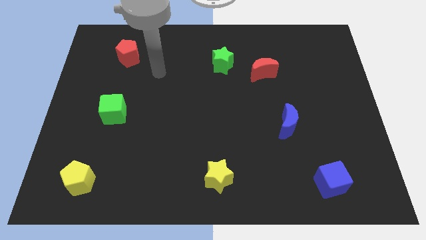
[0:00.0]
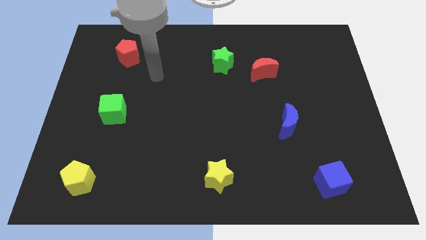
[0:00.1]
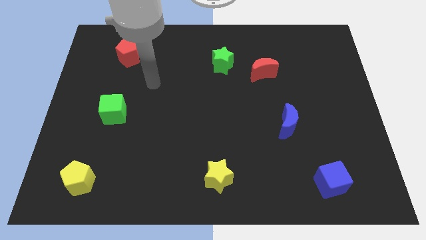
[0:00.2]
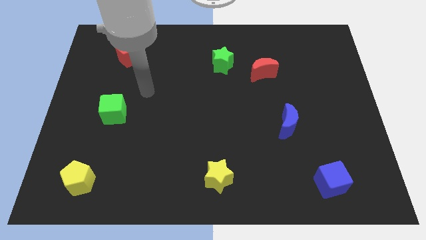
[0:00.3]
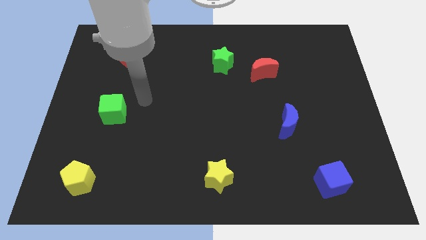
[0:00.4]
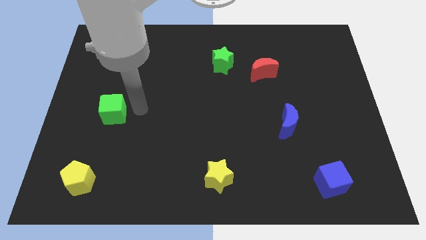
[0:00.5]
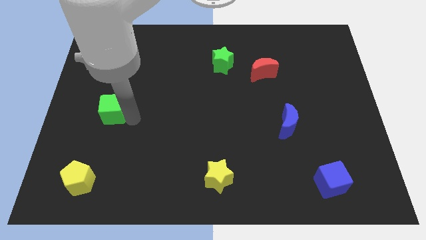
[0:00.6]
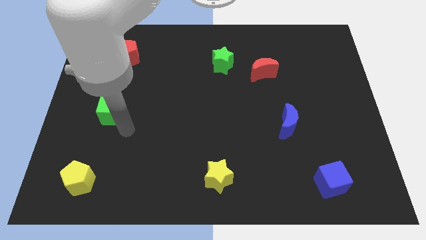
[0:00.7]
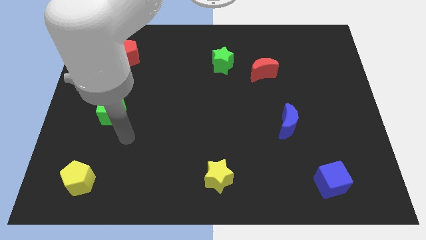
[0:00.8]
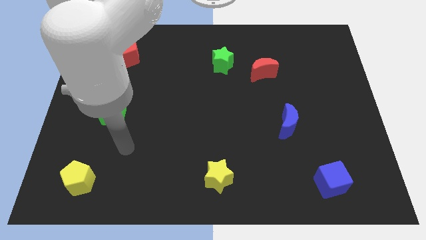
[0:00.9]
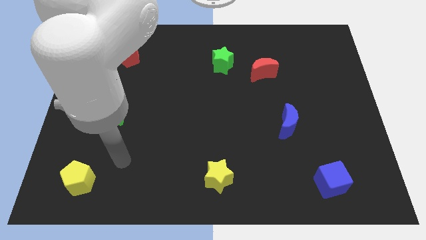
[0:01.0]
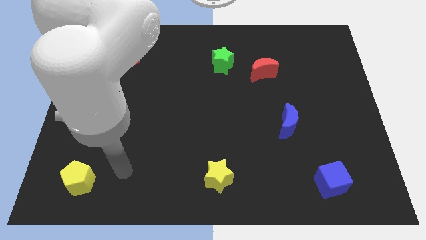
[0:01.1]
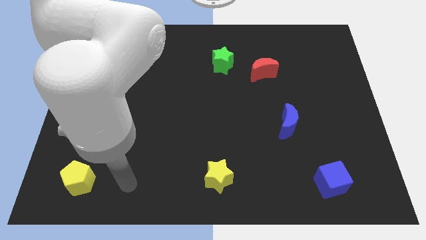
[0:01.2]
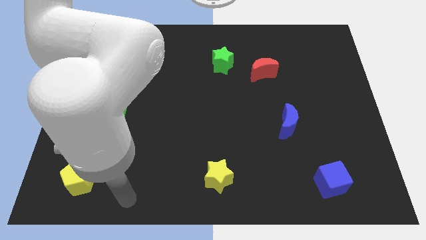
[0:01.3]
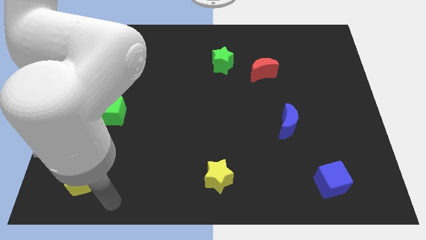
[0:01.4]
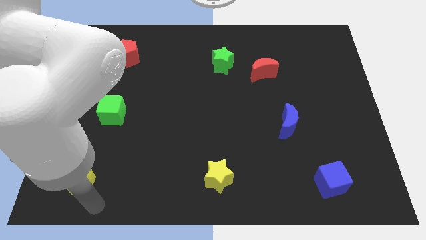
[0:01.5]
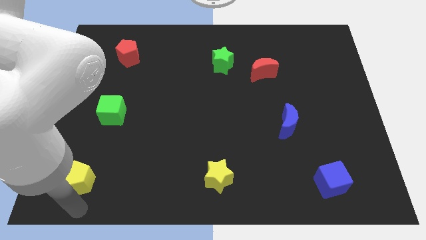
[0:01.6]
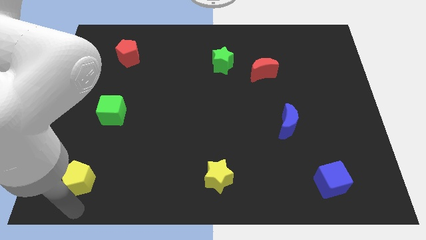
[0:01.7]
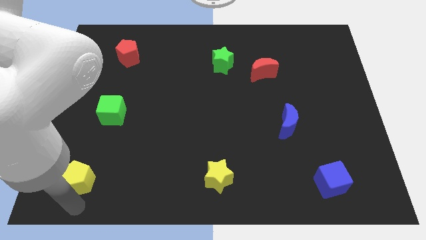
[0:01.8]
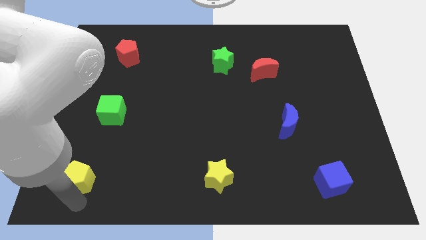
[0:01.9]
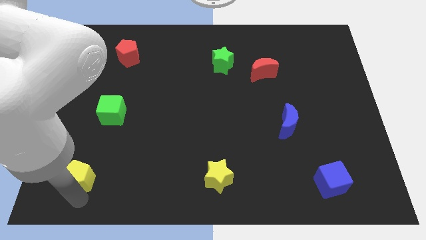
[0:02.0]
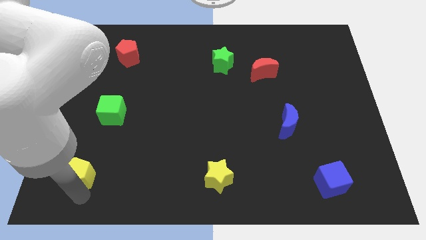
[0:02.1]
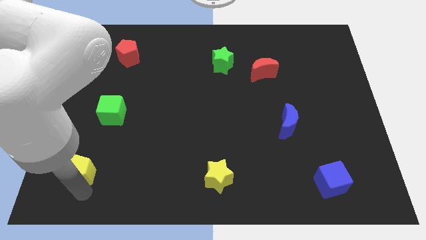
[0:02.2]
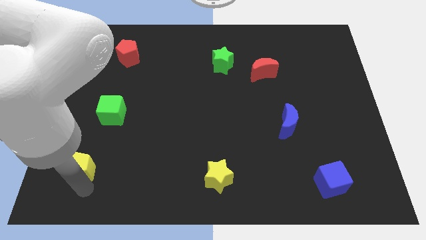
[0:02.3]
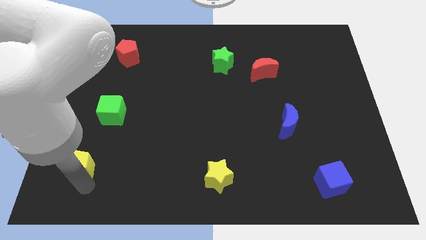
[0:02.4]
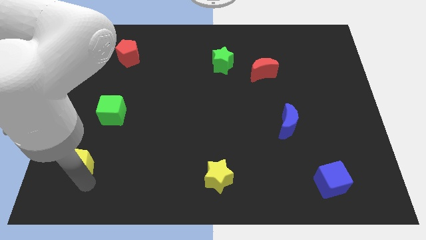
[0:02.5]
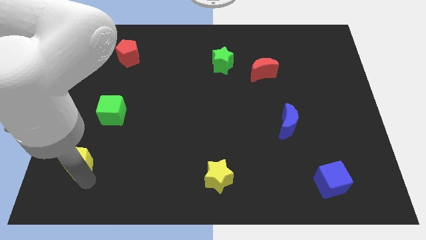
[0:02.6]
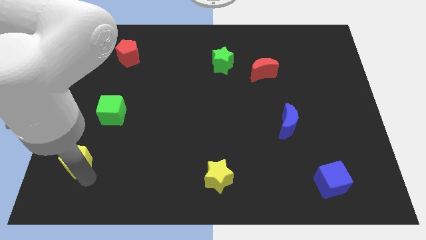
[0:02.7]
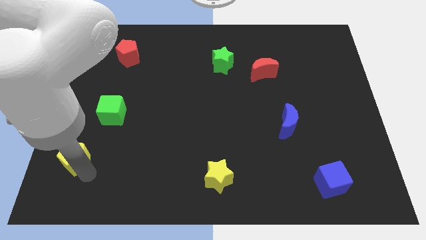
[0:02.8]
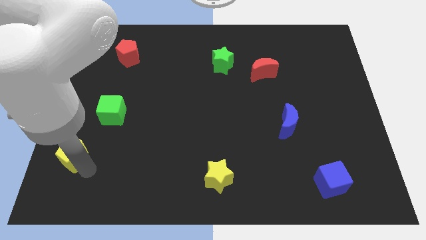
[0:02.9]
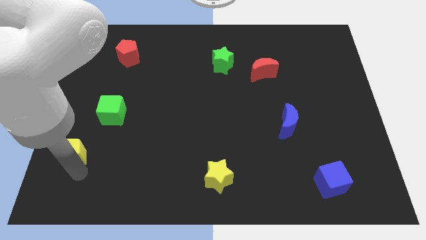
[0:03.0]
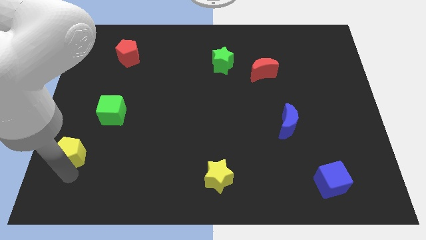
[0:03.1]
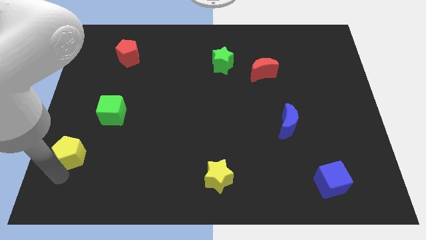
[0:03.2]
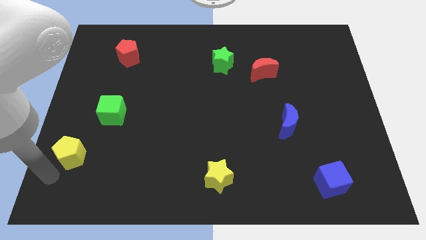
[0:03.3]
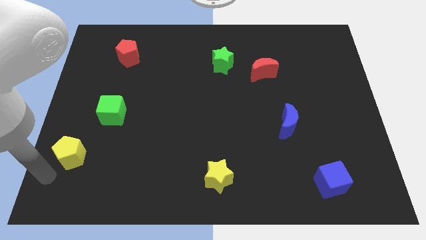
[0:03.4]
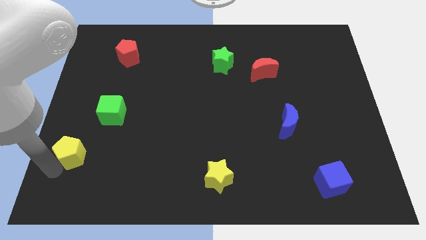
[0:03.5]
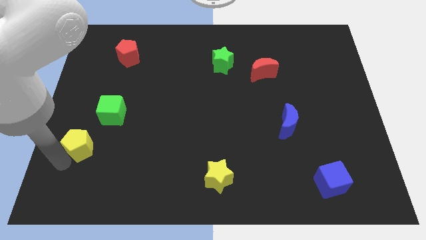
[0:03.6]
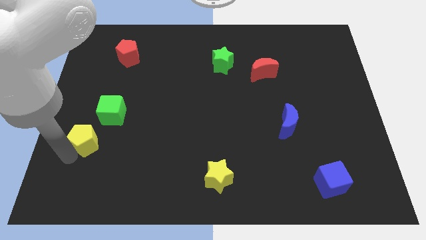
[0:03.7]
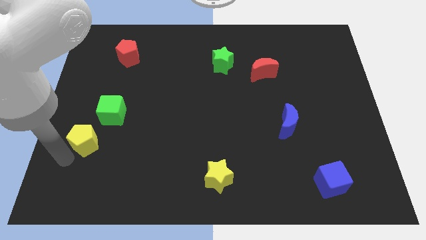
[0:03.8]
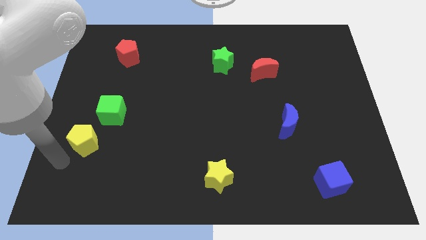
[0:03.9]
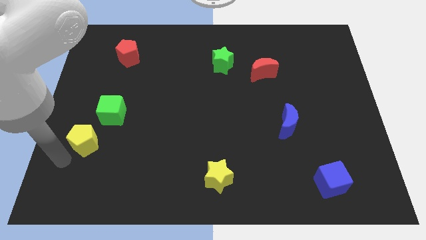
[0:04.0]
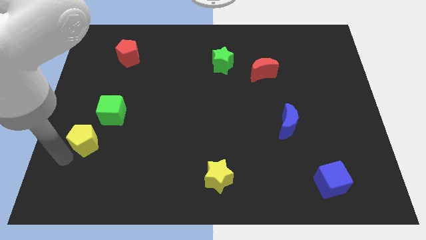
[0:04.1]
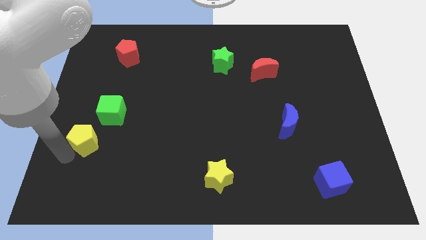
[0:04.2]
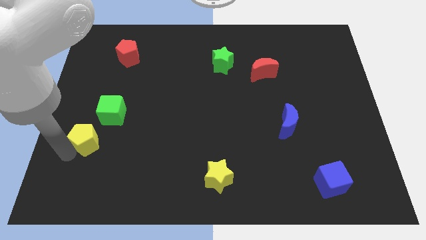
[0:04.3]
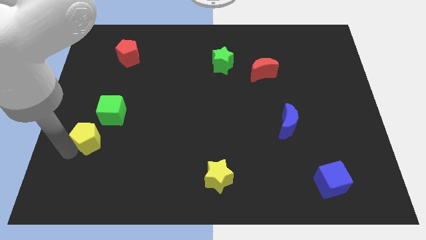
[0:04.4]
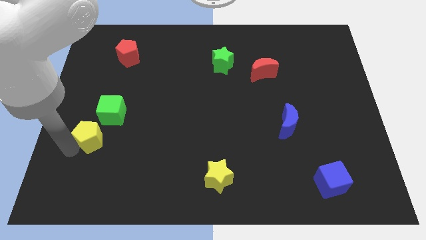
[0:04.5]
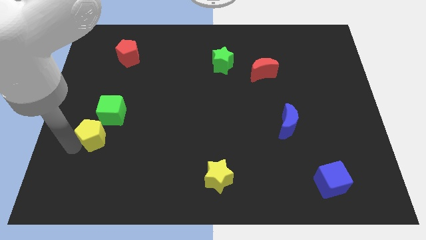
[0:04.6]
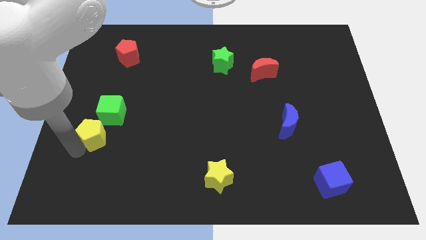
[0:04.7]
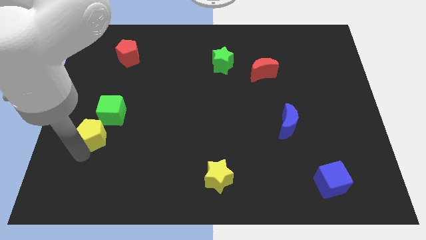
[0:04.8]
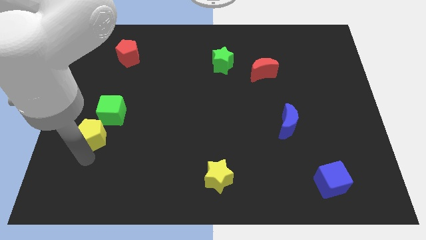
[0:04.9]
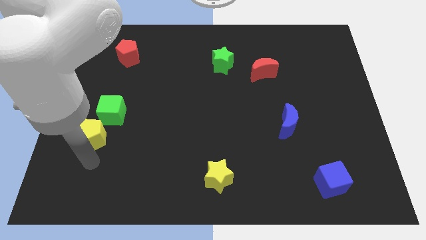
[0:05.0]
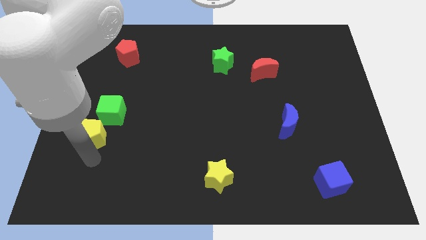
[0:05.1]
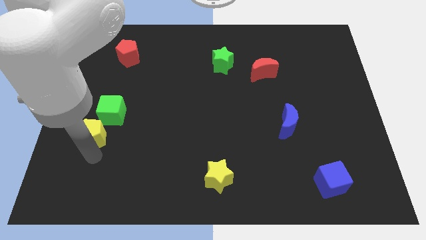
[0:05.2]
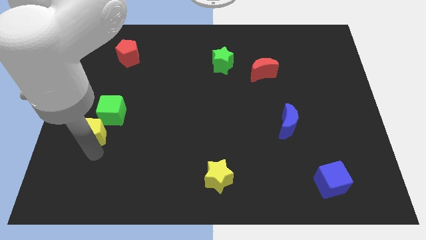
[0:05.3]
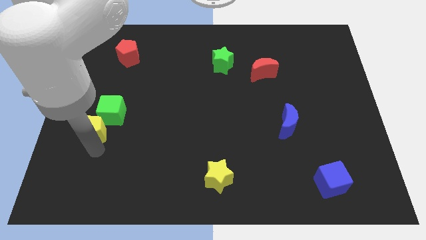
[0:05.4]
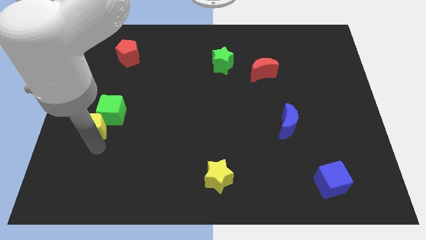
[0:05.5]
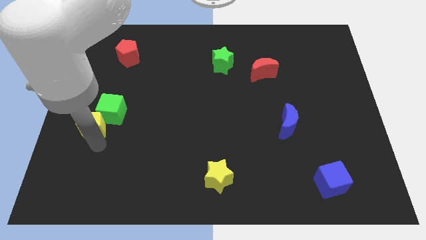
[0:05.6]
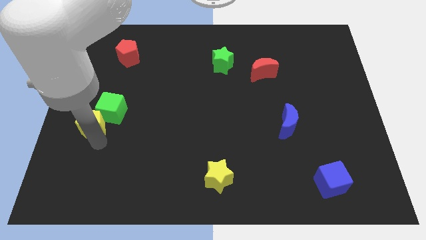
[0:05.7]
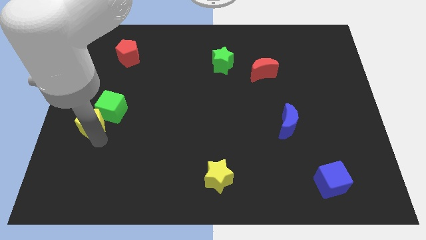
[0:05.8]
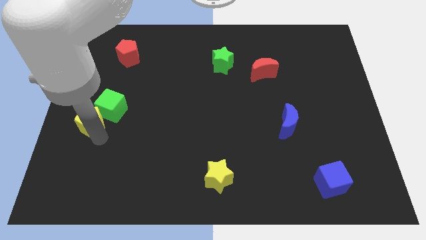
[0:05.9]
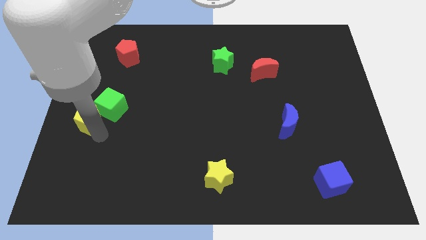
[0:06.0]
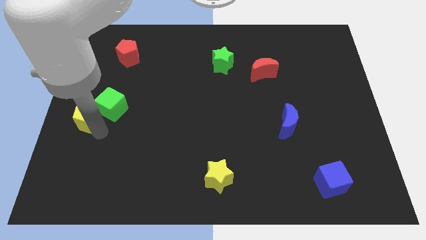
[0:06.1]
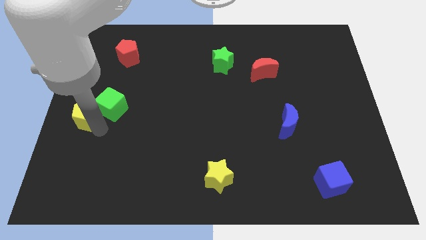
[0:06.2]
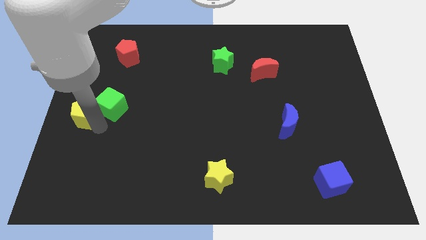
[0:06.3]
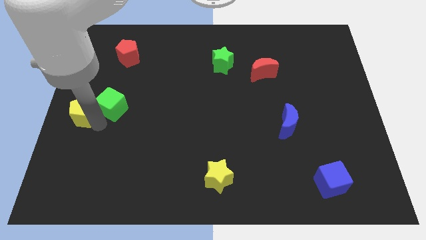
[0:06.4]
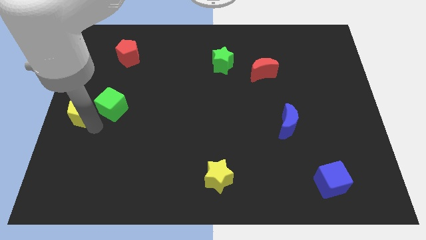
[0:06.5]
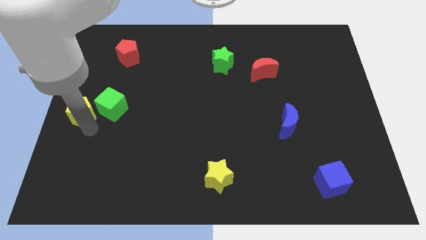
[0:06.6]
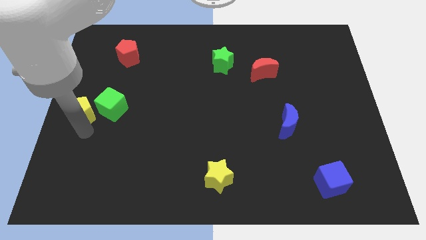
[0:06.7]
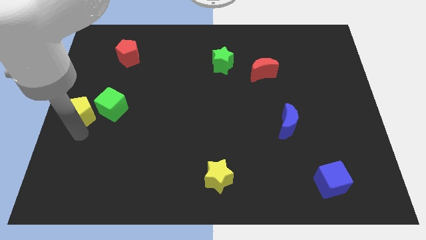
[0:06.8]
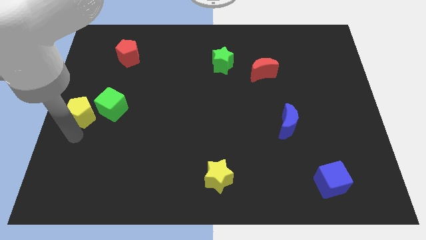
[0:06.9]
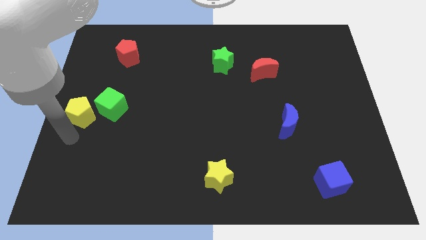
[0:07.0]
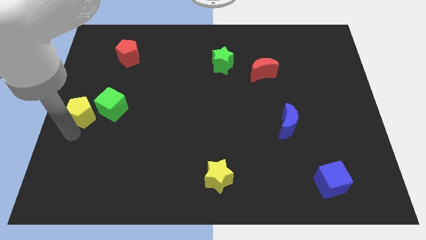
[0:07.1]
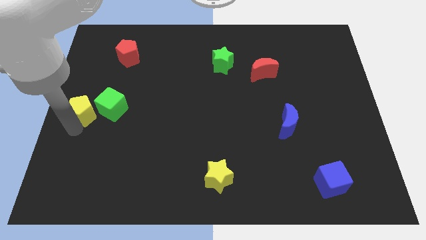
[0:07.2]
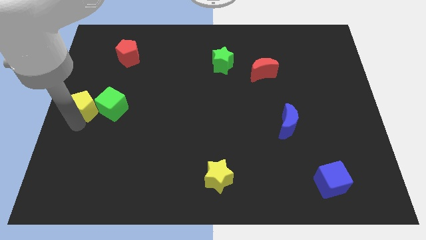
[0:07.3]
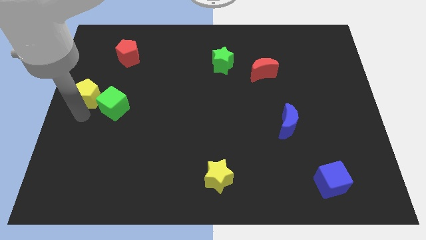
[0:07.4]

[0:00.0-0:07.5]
move the yellow pentagon up
